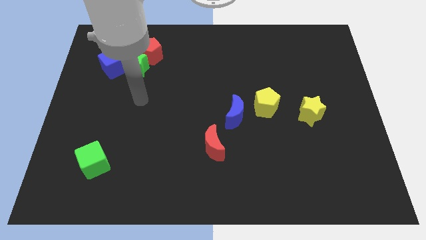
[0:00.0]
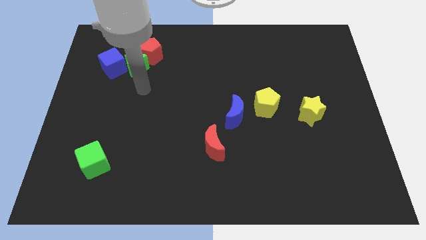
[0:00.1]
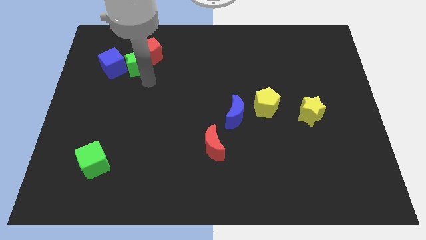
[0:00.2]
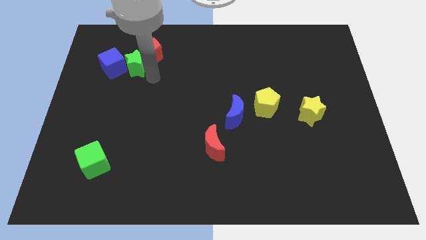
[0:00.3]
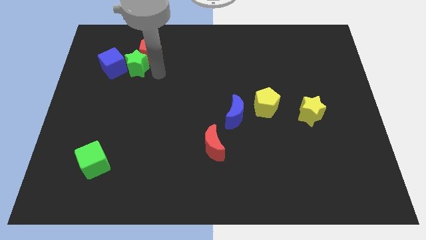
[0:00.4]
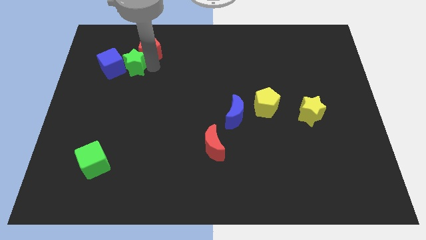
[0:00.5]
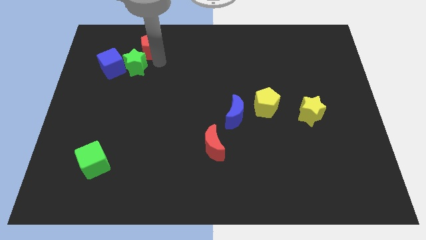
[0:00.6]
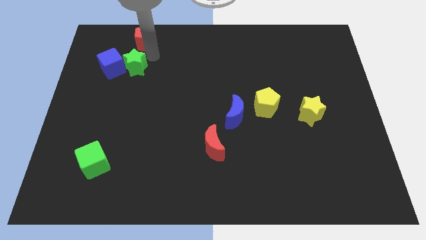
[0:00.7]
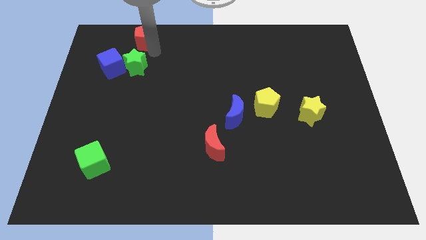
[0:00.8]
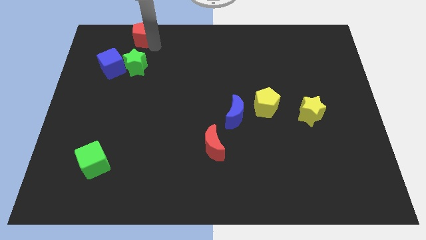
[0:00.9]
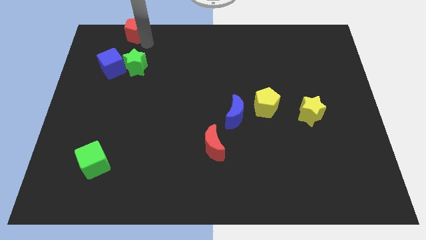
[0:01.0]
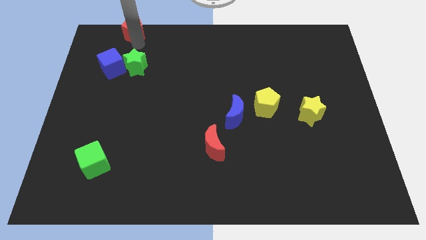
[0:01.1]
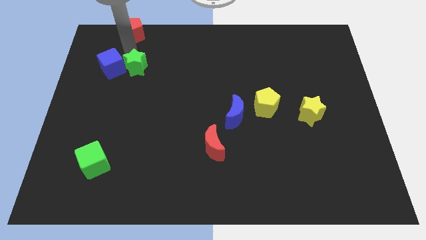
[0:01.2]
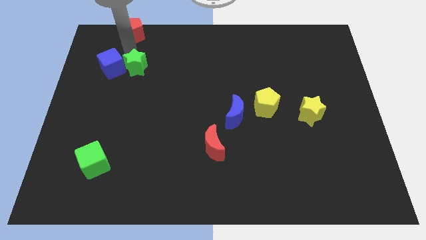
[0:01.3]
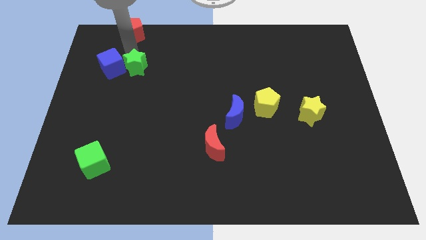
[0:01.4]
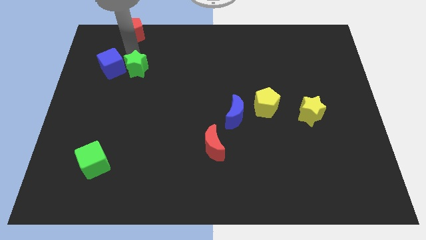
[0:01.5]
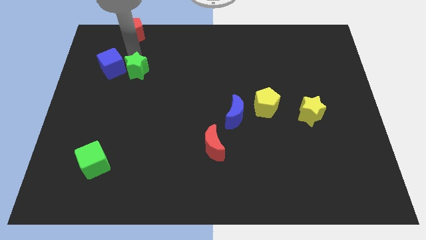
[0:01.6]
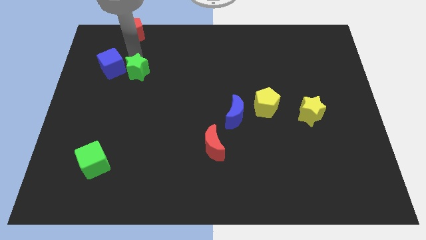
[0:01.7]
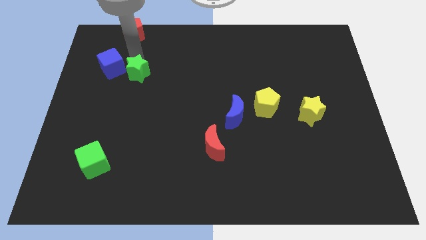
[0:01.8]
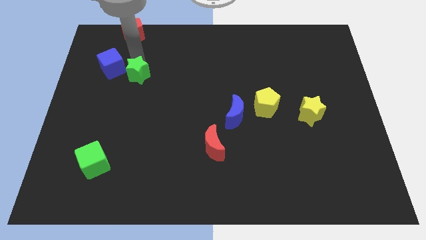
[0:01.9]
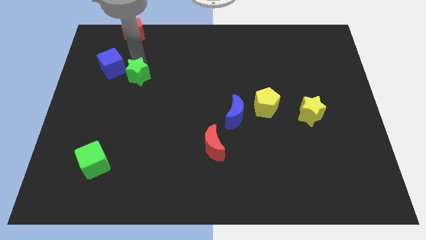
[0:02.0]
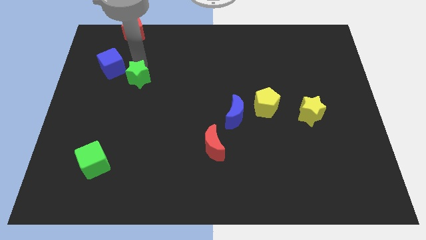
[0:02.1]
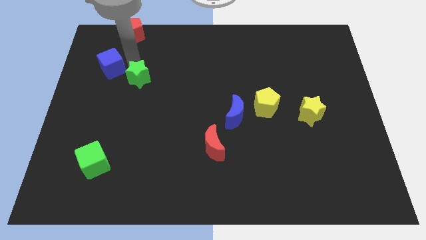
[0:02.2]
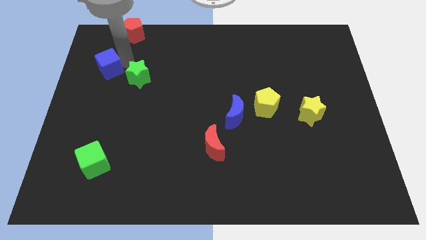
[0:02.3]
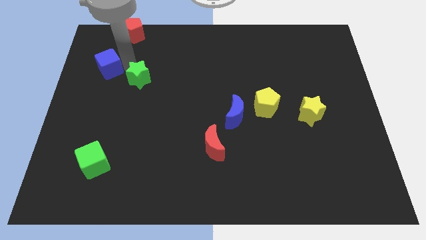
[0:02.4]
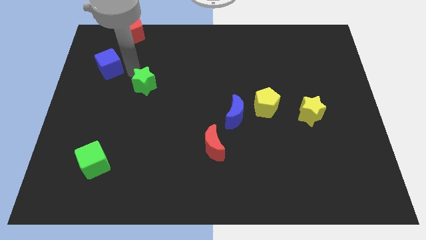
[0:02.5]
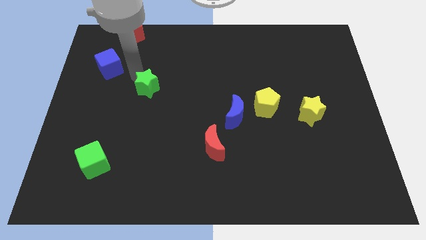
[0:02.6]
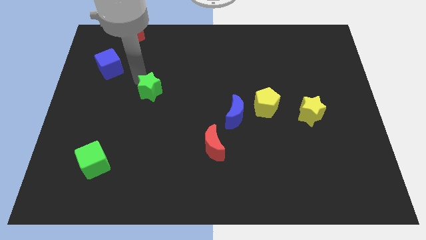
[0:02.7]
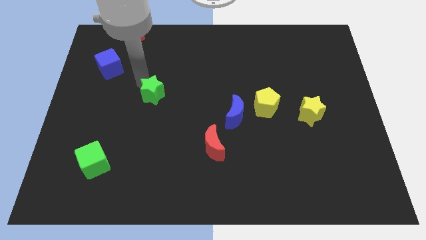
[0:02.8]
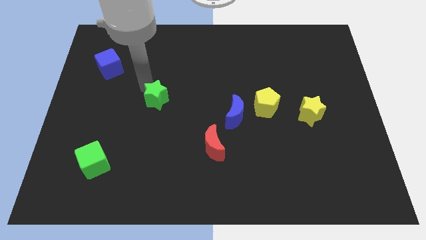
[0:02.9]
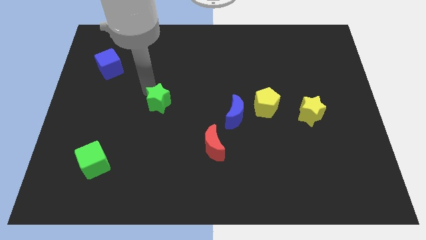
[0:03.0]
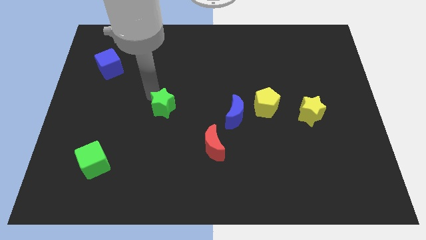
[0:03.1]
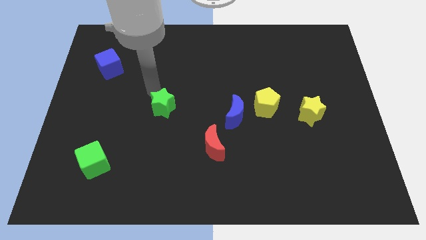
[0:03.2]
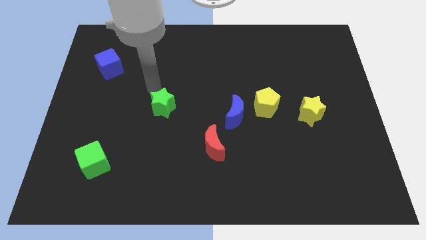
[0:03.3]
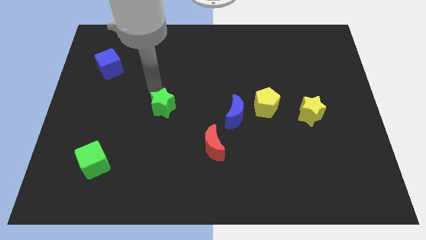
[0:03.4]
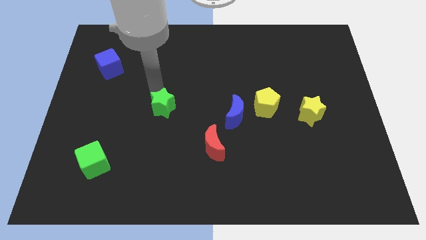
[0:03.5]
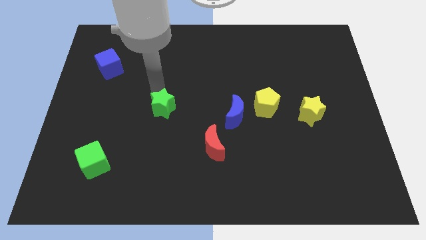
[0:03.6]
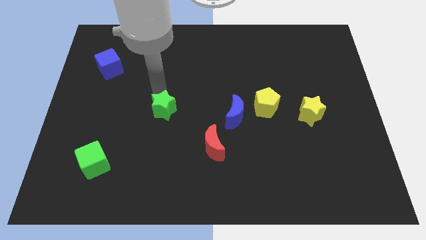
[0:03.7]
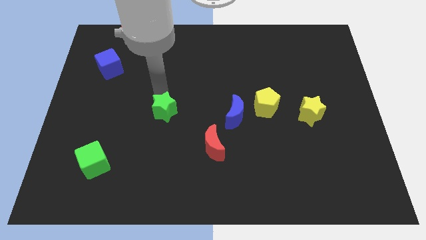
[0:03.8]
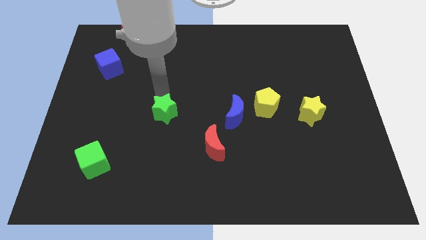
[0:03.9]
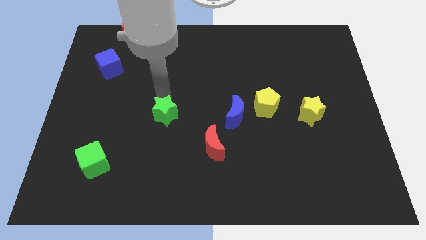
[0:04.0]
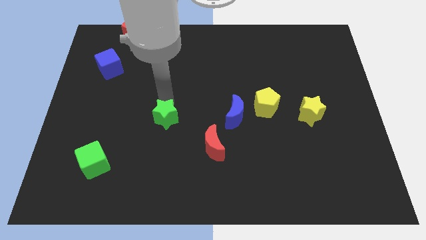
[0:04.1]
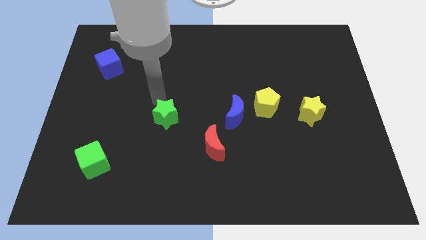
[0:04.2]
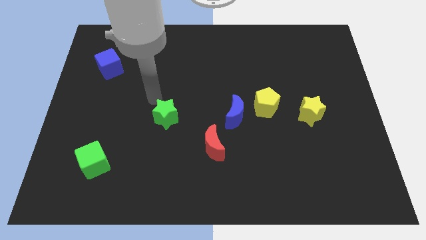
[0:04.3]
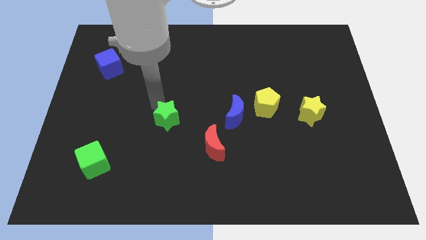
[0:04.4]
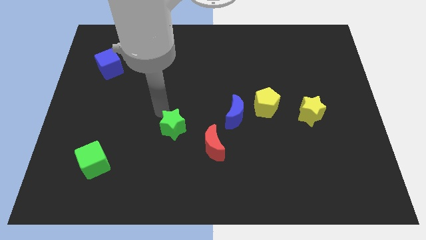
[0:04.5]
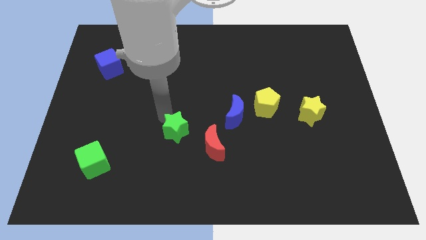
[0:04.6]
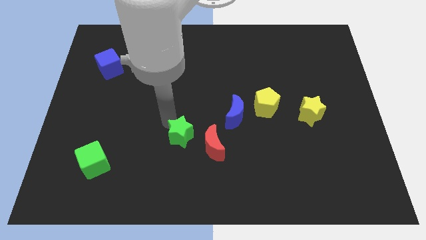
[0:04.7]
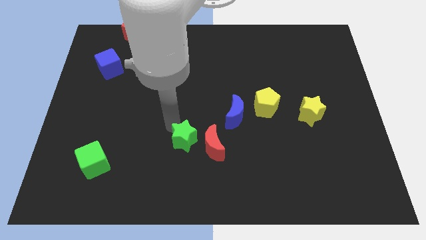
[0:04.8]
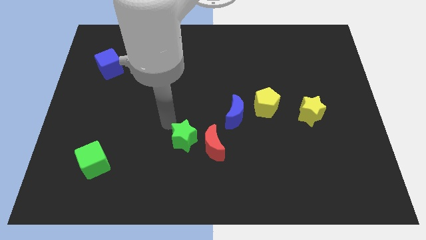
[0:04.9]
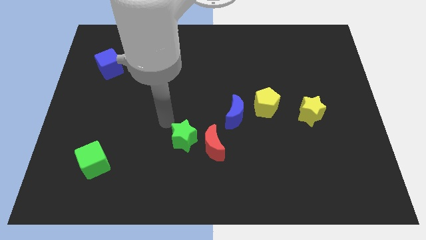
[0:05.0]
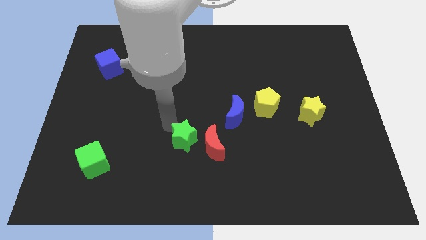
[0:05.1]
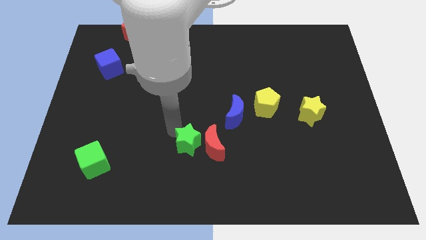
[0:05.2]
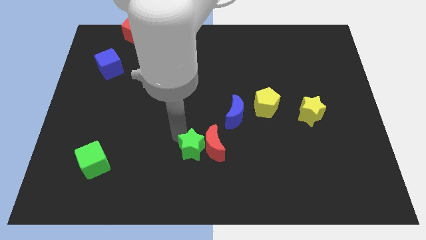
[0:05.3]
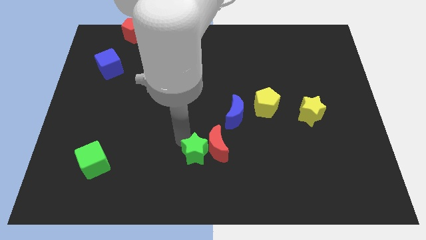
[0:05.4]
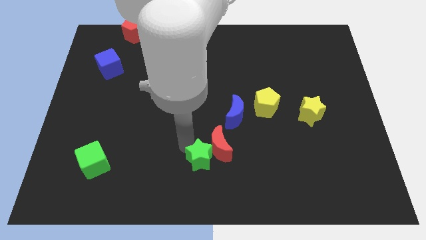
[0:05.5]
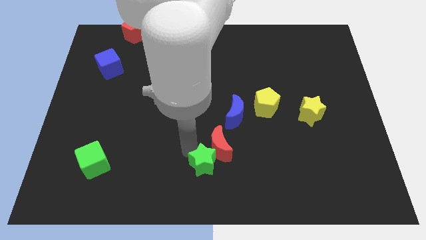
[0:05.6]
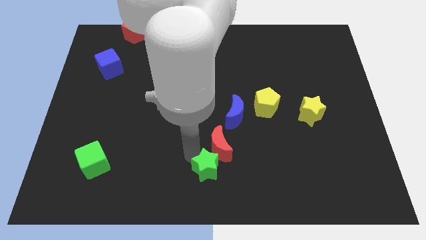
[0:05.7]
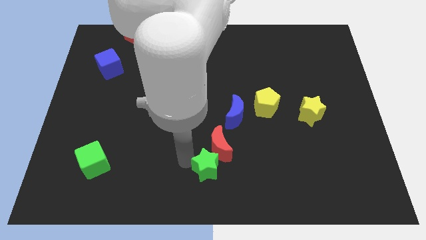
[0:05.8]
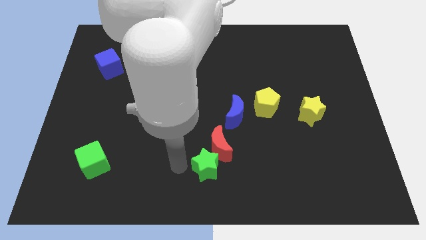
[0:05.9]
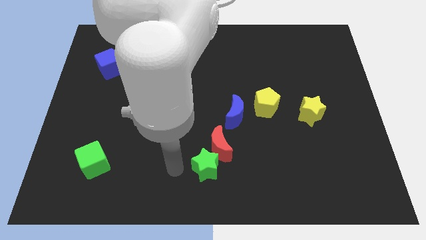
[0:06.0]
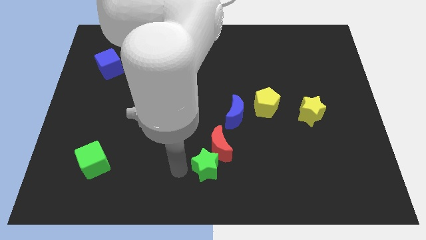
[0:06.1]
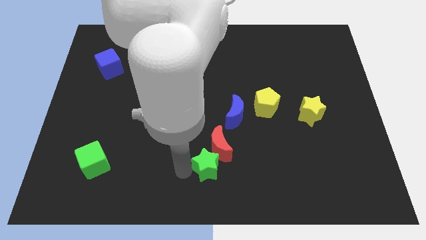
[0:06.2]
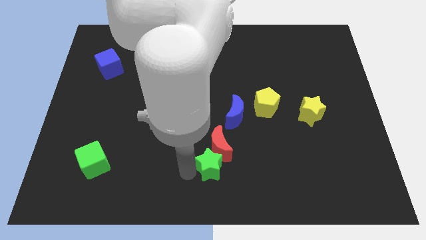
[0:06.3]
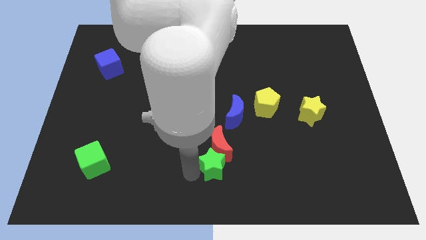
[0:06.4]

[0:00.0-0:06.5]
move the green star diagonally down and to the right of the red moon
